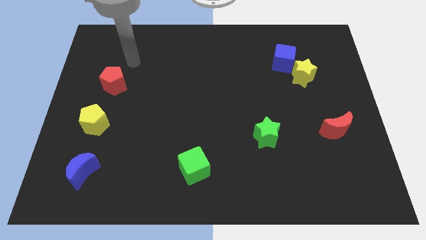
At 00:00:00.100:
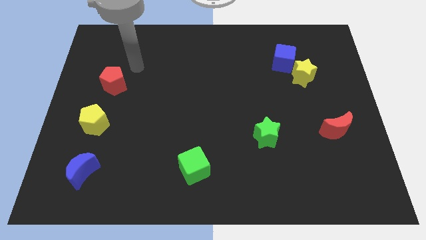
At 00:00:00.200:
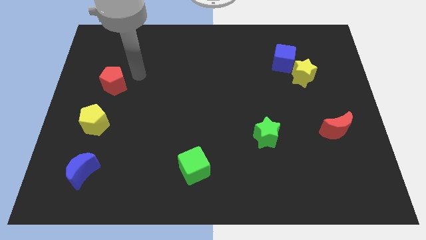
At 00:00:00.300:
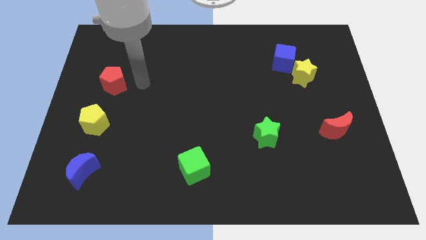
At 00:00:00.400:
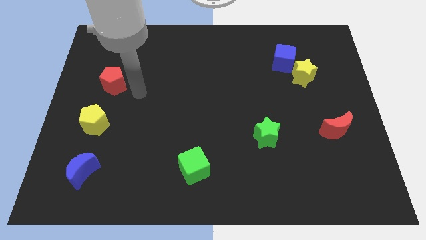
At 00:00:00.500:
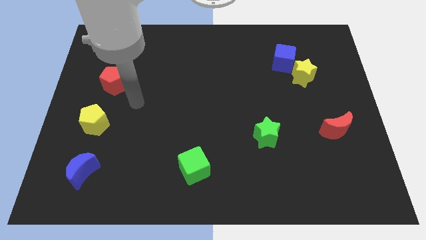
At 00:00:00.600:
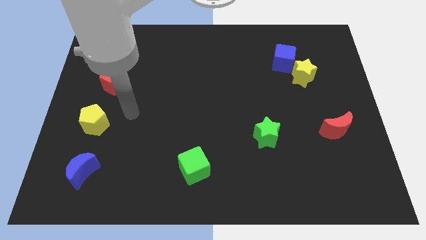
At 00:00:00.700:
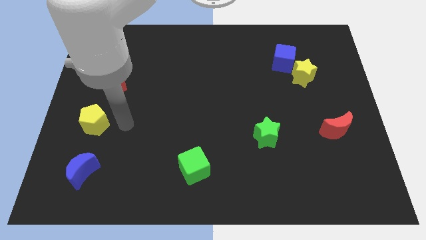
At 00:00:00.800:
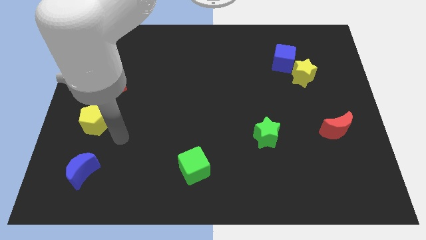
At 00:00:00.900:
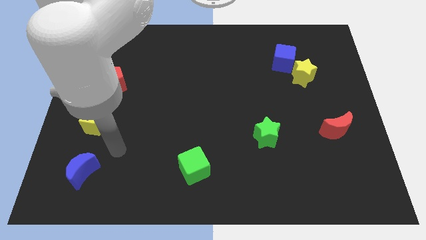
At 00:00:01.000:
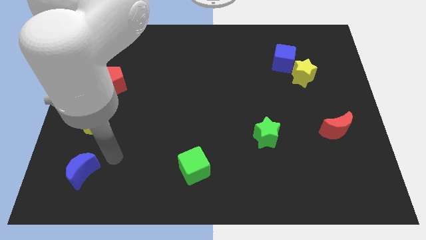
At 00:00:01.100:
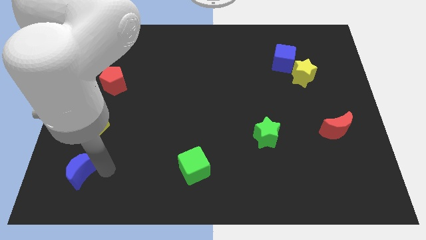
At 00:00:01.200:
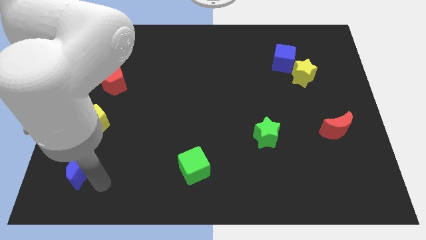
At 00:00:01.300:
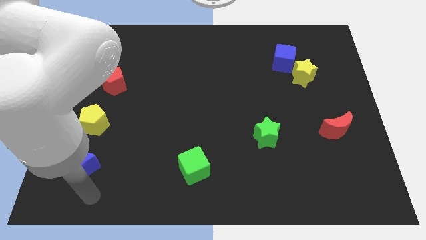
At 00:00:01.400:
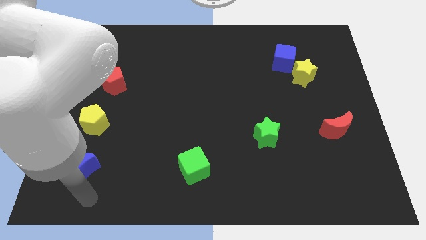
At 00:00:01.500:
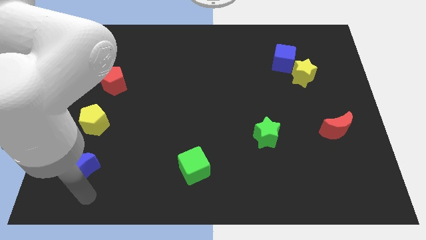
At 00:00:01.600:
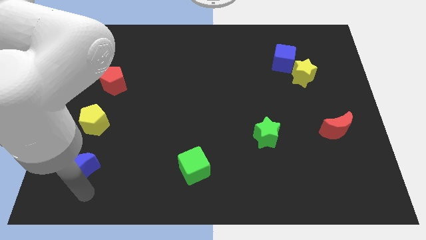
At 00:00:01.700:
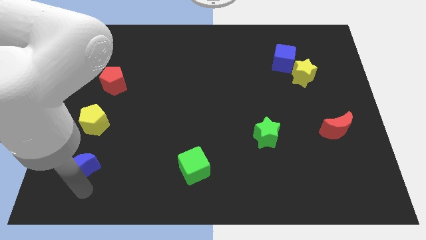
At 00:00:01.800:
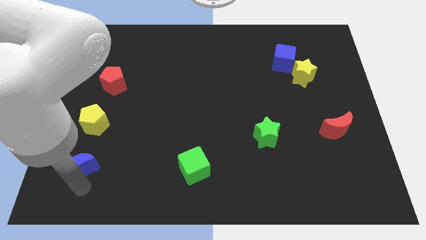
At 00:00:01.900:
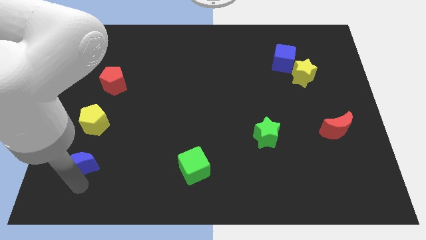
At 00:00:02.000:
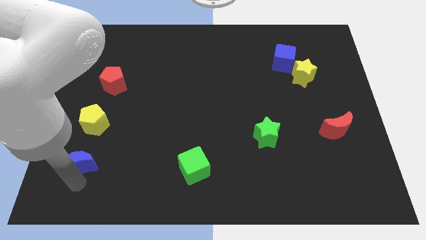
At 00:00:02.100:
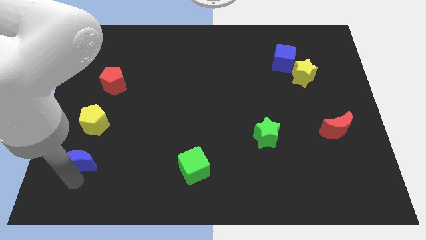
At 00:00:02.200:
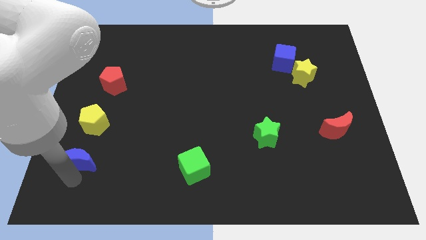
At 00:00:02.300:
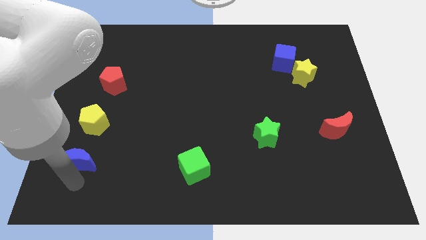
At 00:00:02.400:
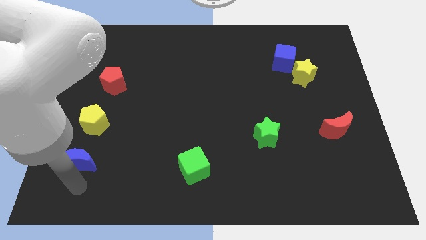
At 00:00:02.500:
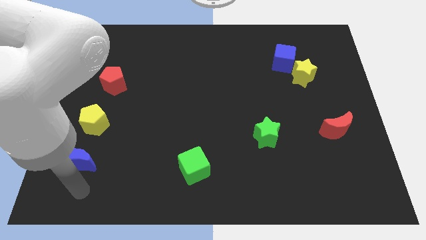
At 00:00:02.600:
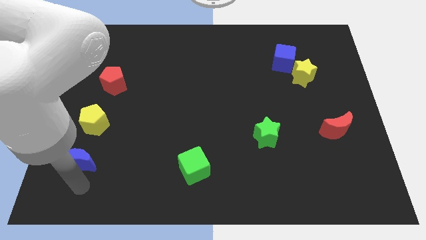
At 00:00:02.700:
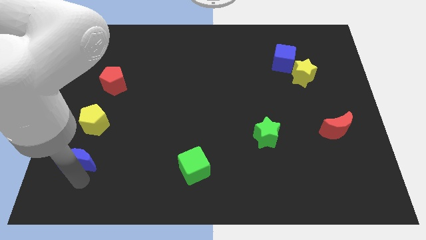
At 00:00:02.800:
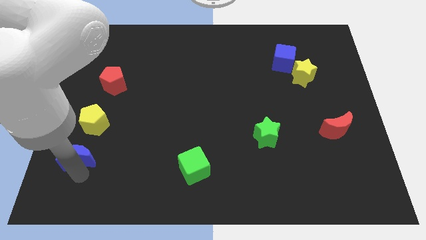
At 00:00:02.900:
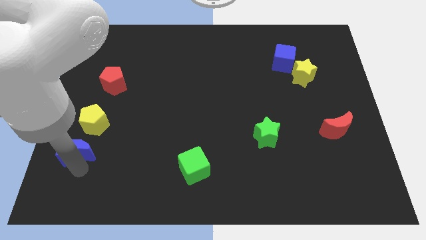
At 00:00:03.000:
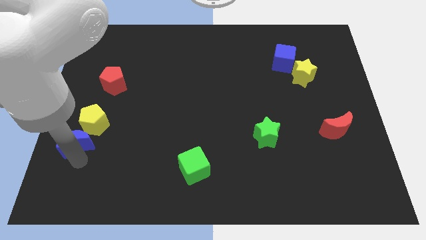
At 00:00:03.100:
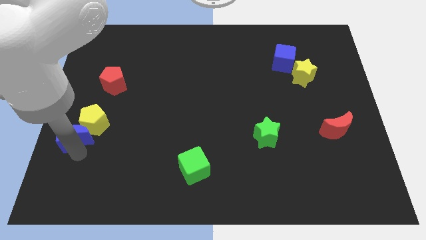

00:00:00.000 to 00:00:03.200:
slightly slide the blue moon upwards

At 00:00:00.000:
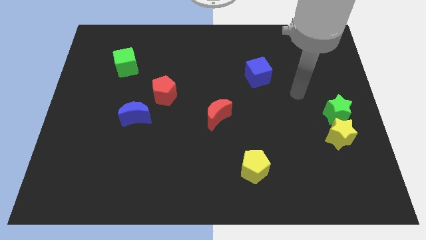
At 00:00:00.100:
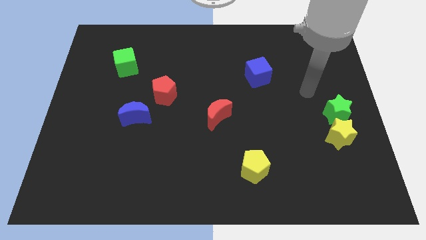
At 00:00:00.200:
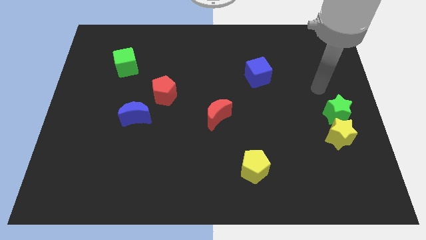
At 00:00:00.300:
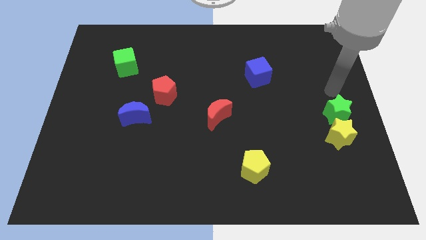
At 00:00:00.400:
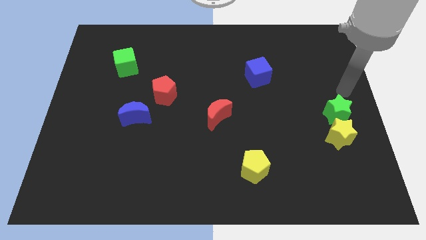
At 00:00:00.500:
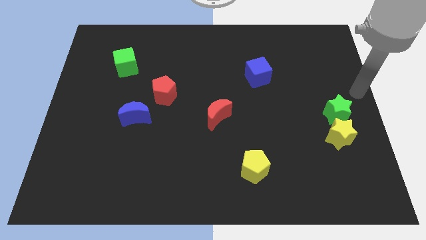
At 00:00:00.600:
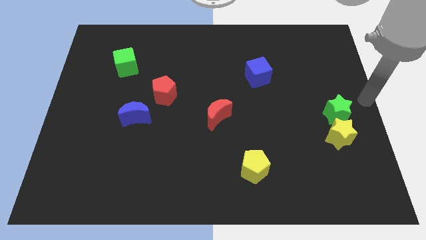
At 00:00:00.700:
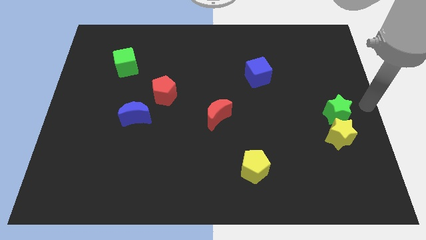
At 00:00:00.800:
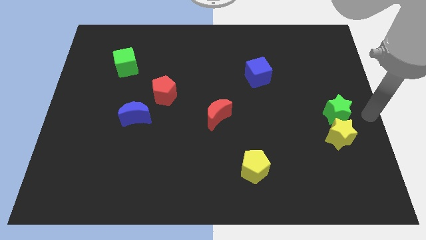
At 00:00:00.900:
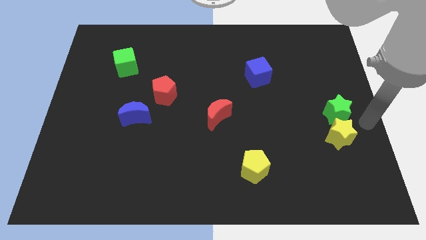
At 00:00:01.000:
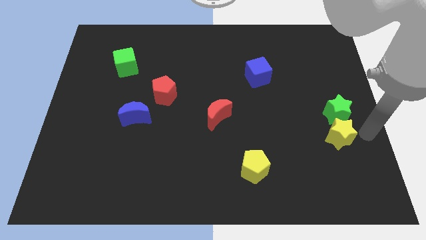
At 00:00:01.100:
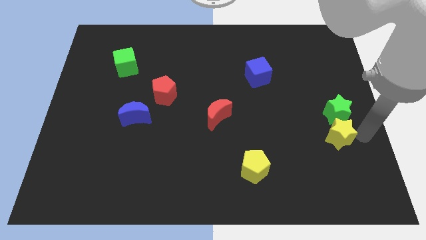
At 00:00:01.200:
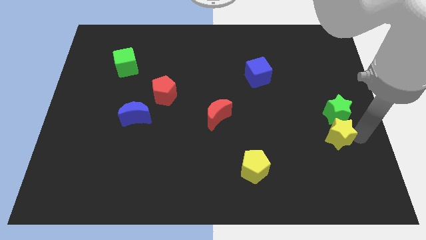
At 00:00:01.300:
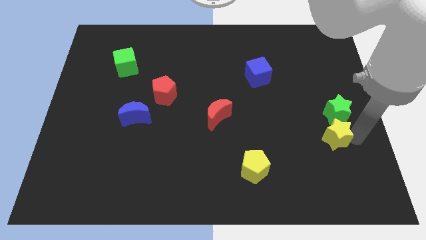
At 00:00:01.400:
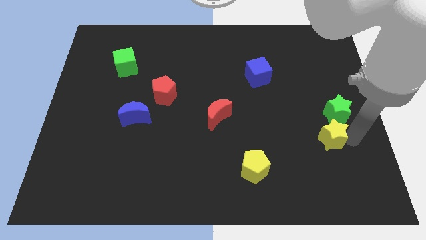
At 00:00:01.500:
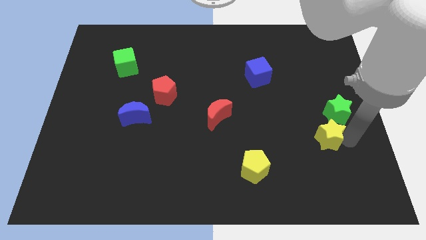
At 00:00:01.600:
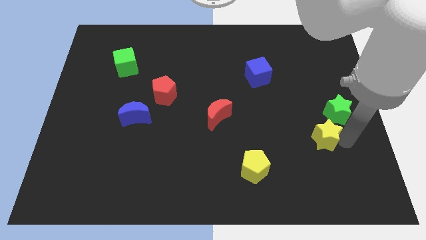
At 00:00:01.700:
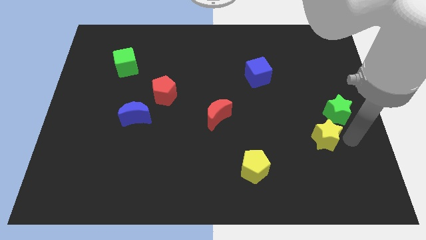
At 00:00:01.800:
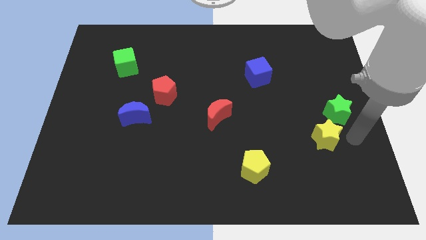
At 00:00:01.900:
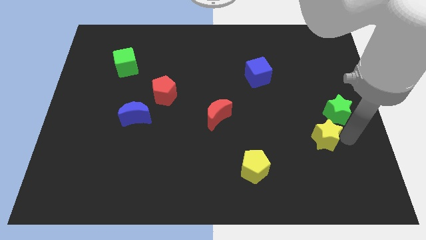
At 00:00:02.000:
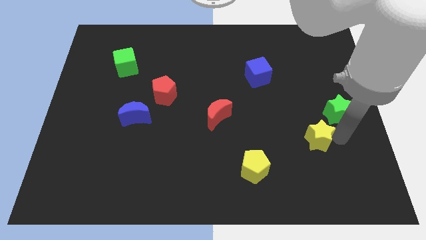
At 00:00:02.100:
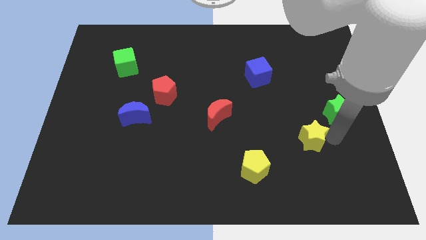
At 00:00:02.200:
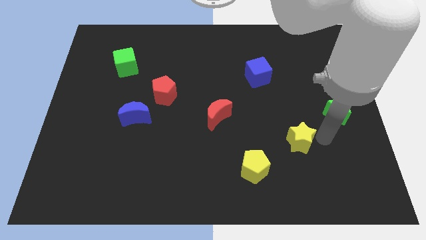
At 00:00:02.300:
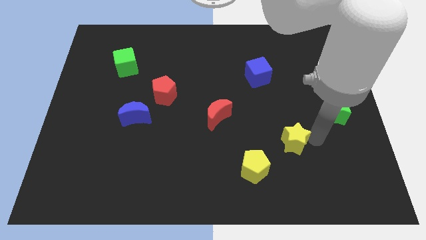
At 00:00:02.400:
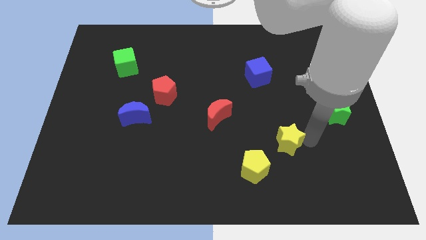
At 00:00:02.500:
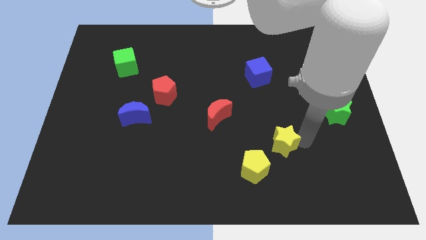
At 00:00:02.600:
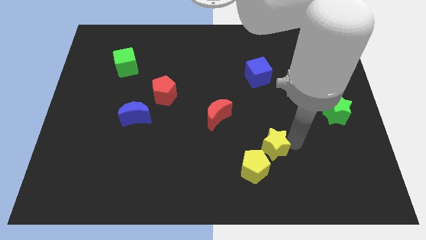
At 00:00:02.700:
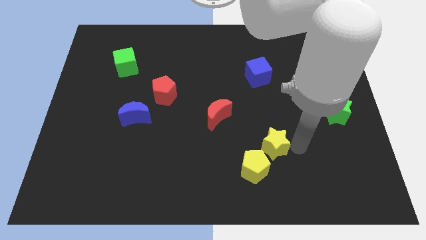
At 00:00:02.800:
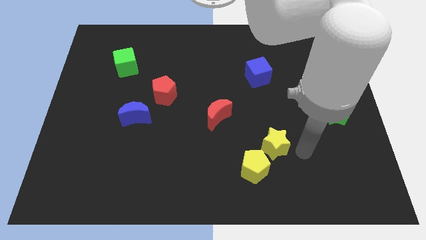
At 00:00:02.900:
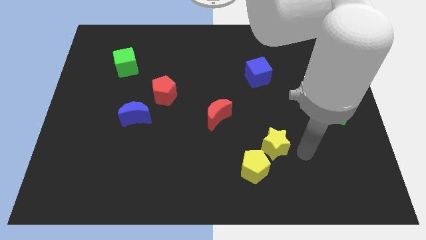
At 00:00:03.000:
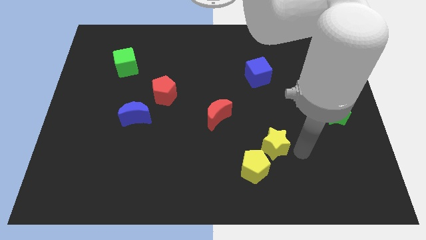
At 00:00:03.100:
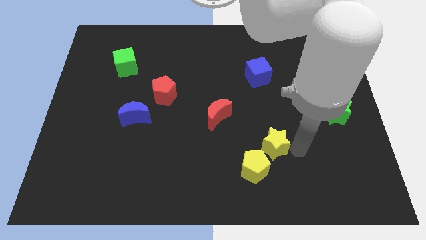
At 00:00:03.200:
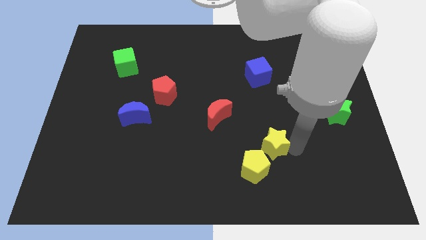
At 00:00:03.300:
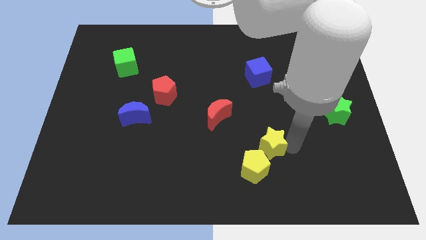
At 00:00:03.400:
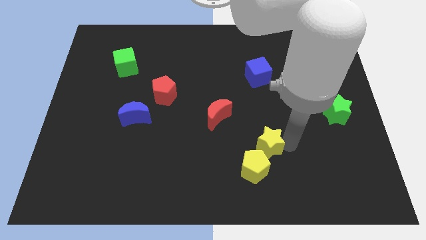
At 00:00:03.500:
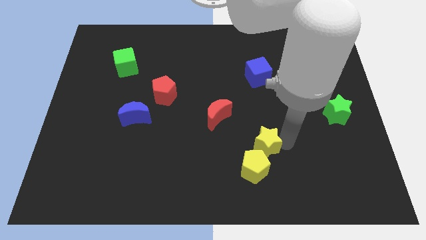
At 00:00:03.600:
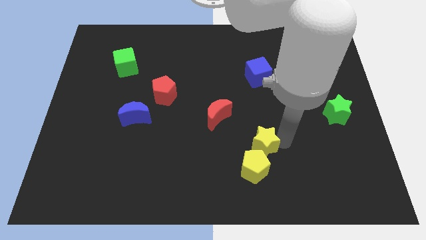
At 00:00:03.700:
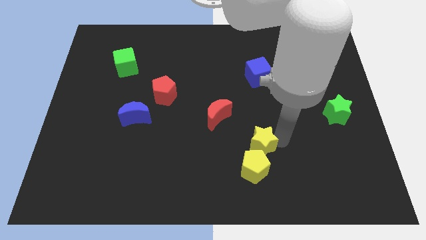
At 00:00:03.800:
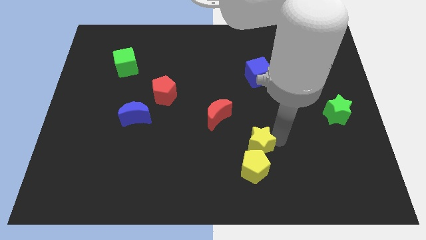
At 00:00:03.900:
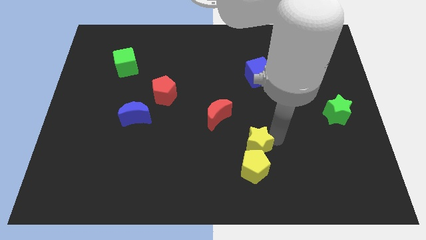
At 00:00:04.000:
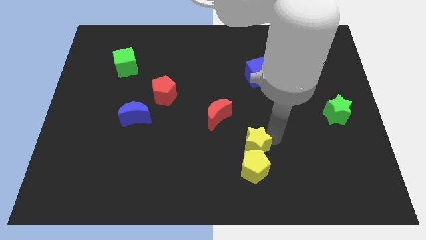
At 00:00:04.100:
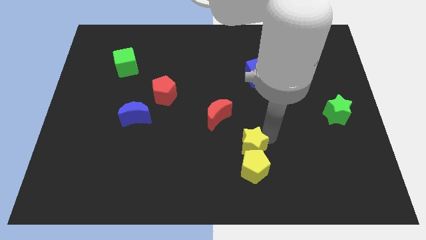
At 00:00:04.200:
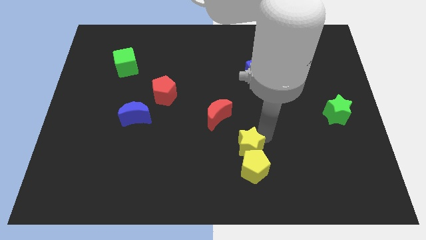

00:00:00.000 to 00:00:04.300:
push the yellow star left

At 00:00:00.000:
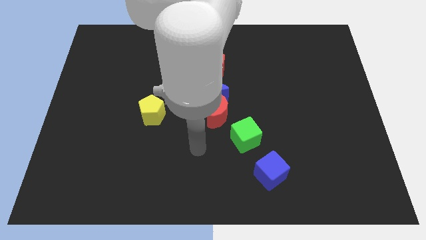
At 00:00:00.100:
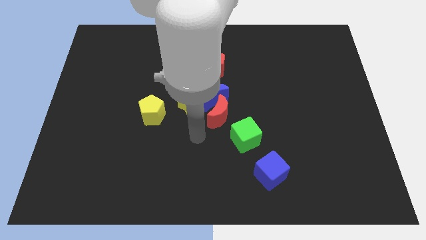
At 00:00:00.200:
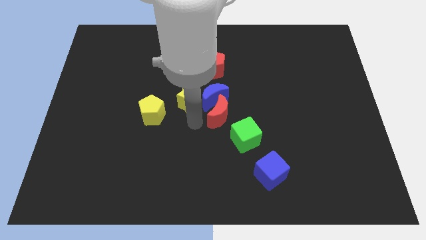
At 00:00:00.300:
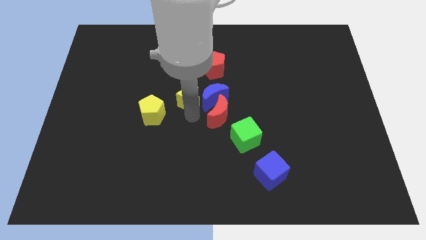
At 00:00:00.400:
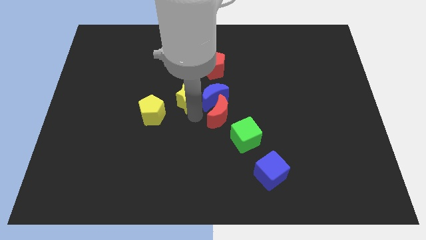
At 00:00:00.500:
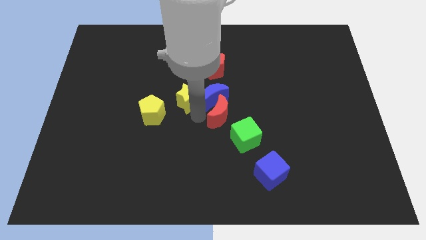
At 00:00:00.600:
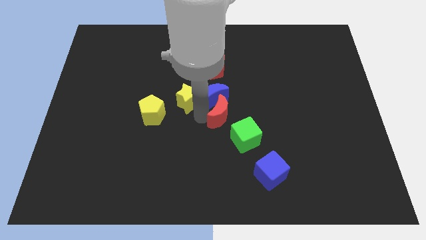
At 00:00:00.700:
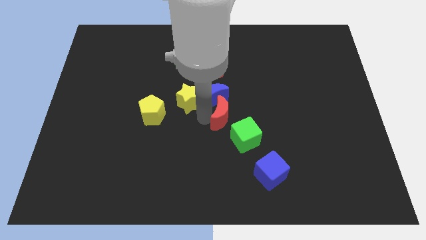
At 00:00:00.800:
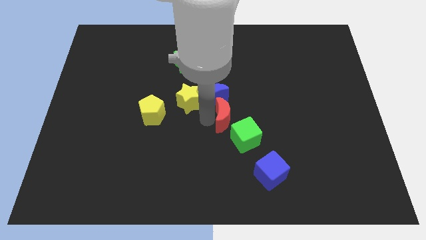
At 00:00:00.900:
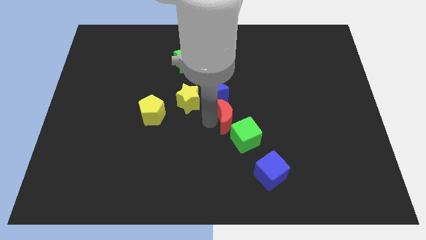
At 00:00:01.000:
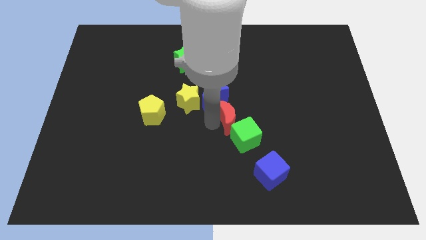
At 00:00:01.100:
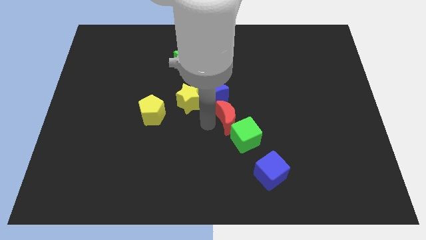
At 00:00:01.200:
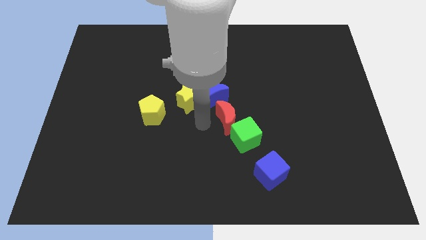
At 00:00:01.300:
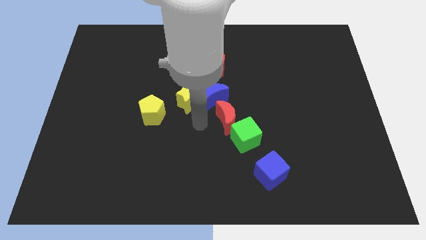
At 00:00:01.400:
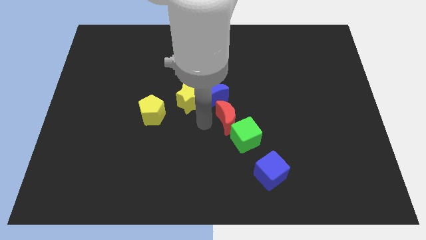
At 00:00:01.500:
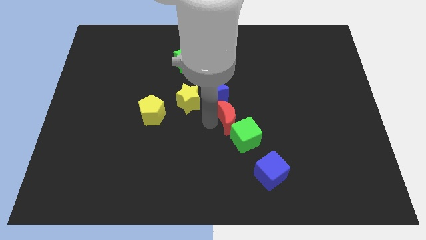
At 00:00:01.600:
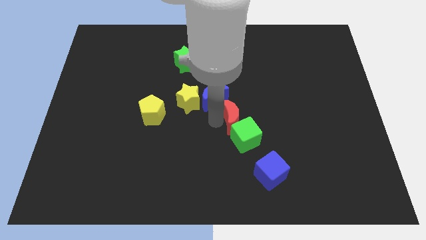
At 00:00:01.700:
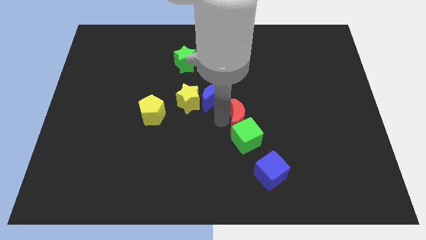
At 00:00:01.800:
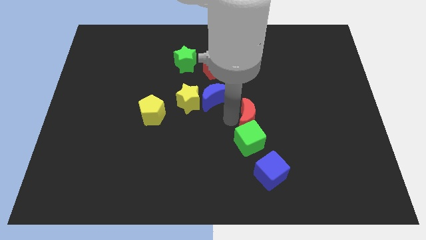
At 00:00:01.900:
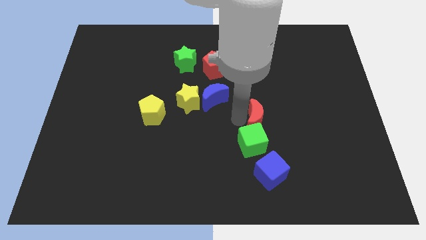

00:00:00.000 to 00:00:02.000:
move the red moon a bit right
